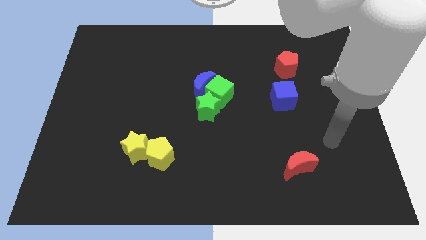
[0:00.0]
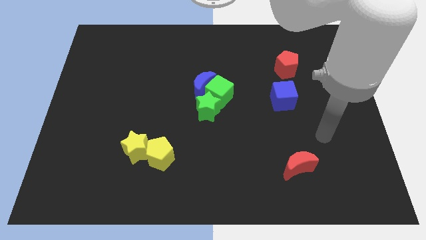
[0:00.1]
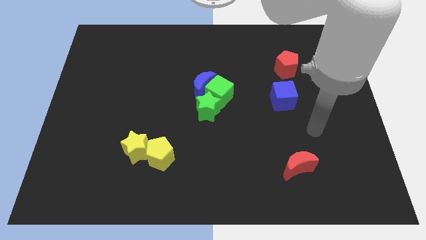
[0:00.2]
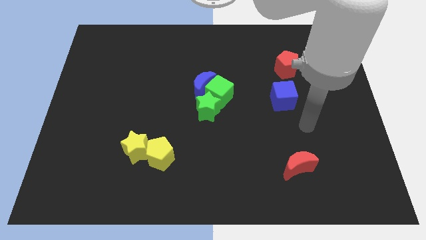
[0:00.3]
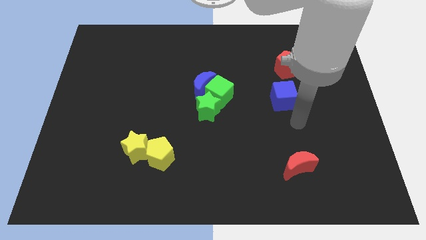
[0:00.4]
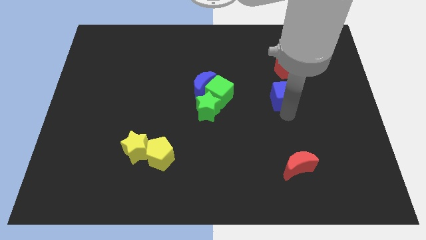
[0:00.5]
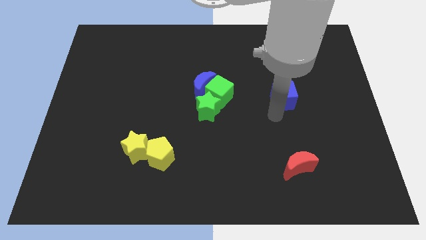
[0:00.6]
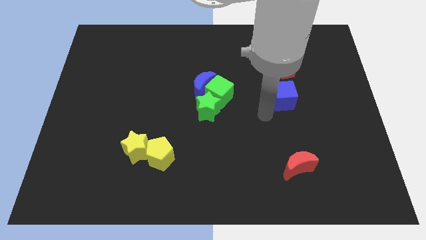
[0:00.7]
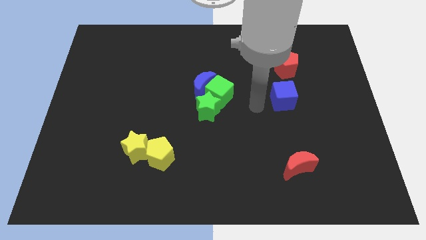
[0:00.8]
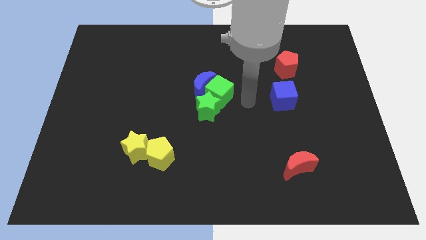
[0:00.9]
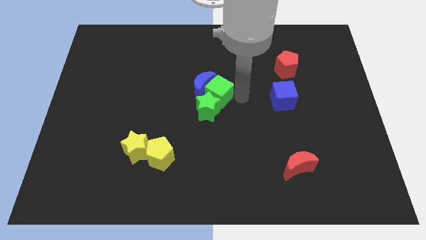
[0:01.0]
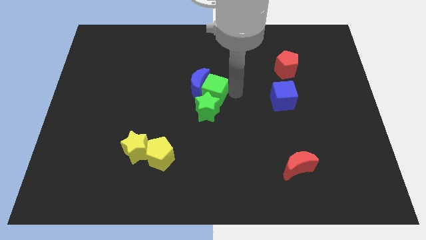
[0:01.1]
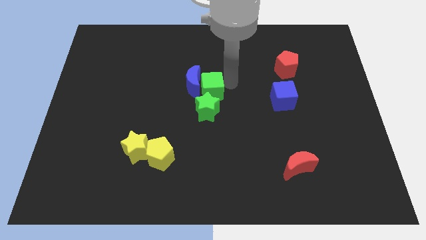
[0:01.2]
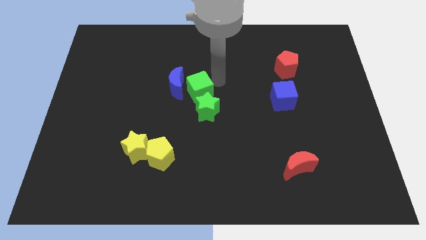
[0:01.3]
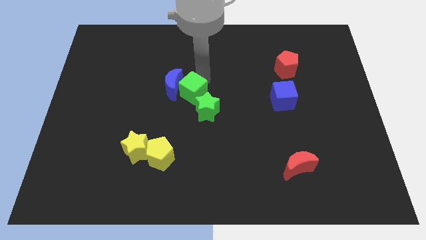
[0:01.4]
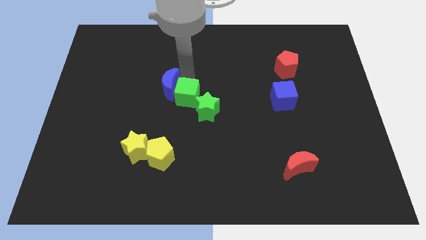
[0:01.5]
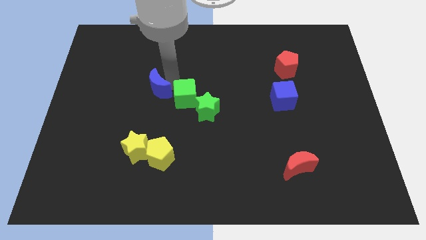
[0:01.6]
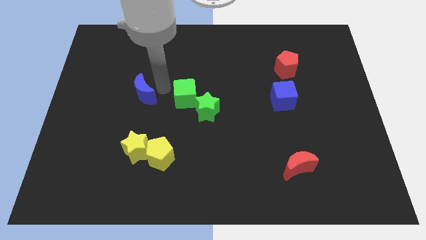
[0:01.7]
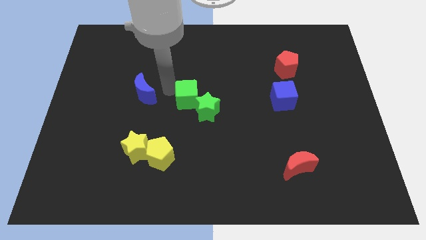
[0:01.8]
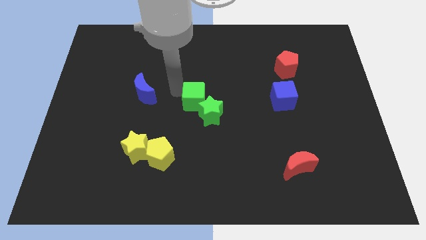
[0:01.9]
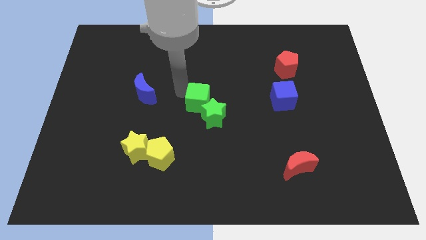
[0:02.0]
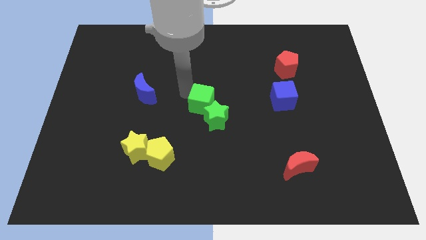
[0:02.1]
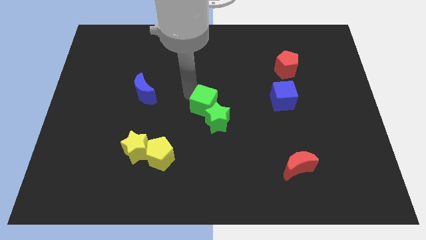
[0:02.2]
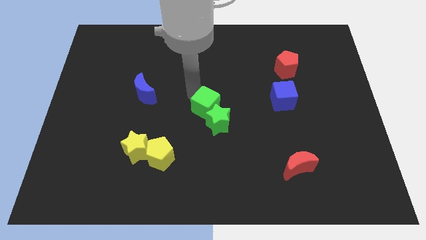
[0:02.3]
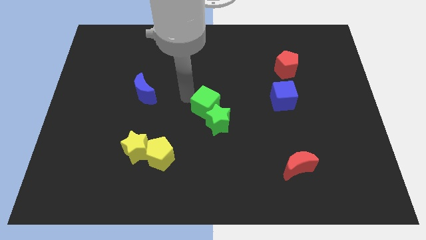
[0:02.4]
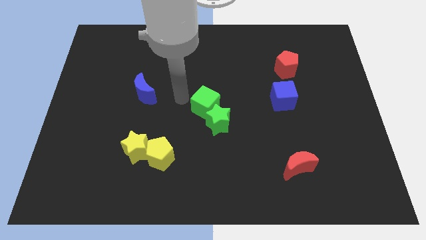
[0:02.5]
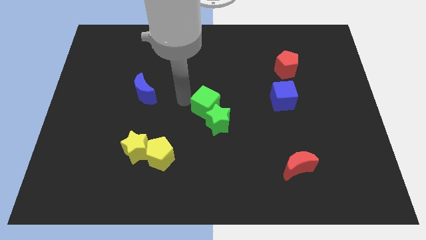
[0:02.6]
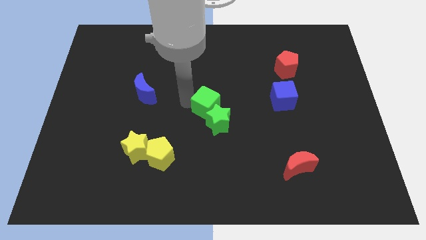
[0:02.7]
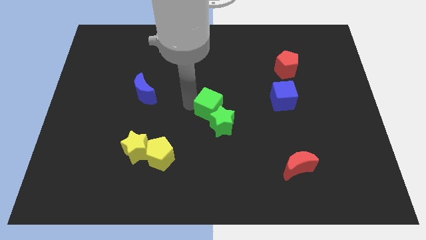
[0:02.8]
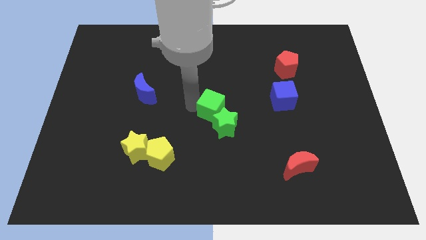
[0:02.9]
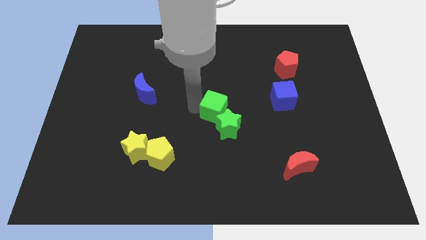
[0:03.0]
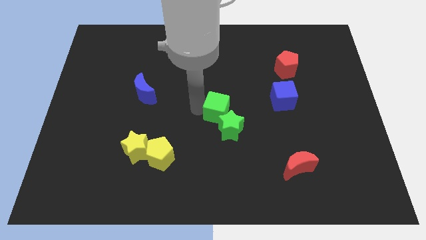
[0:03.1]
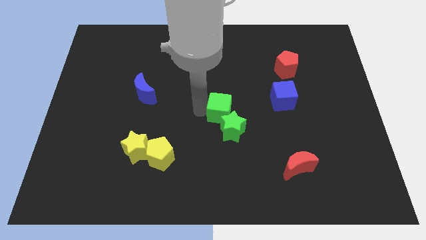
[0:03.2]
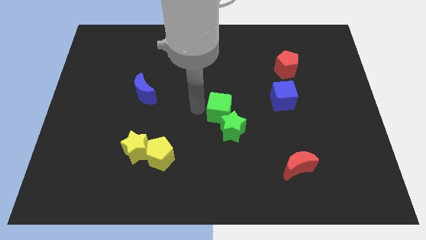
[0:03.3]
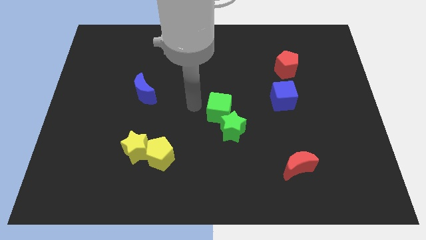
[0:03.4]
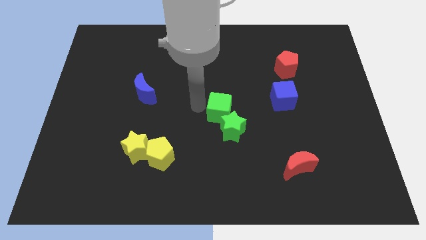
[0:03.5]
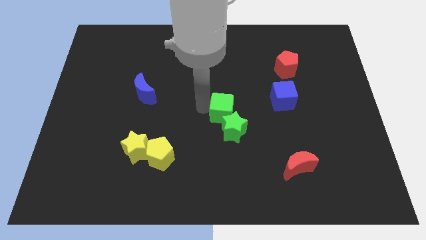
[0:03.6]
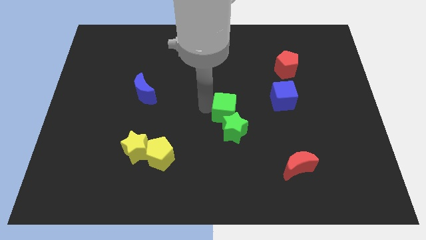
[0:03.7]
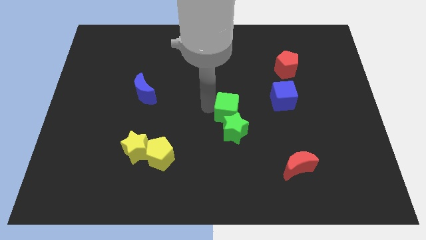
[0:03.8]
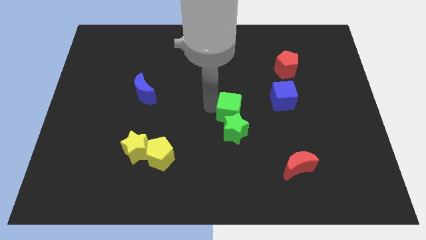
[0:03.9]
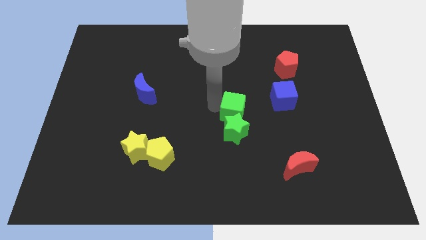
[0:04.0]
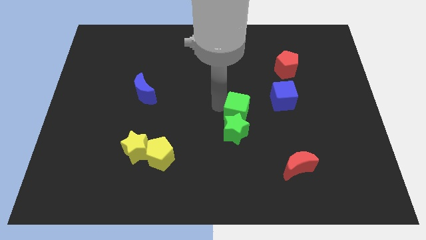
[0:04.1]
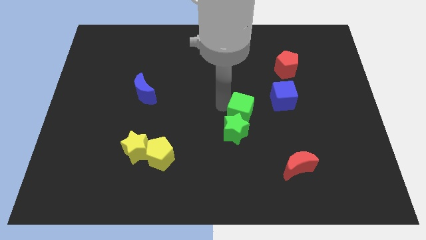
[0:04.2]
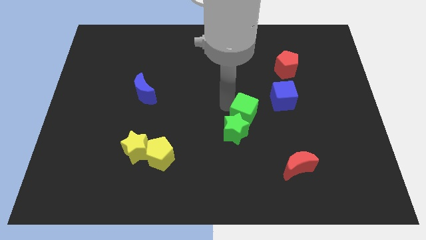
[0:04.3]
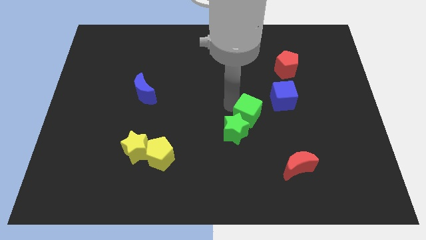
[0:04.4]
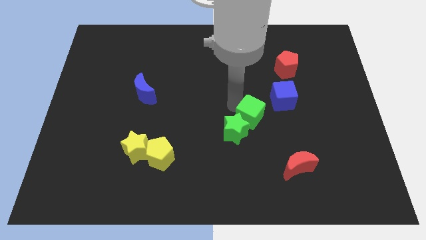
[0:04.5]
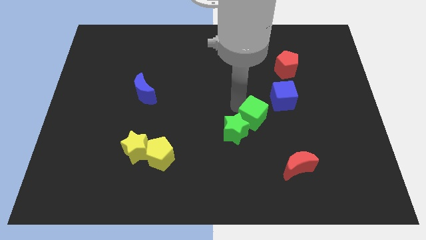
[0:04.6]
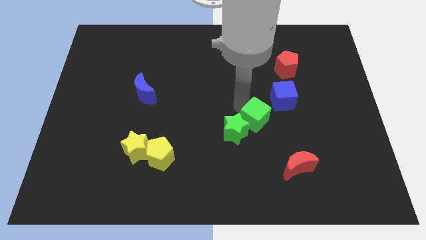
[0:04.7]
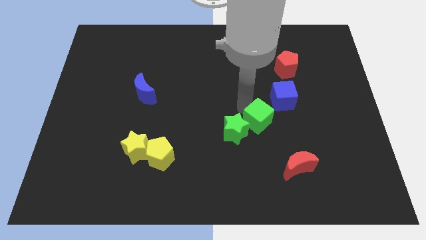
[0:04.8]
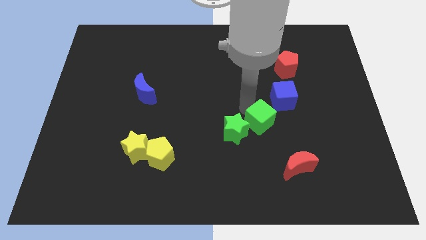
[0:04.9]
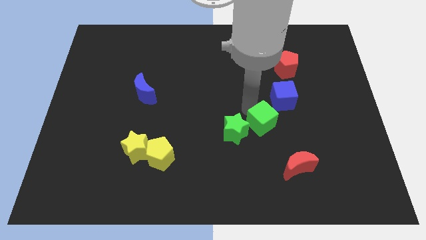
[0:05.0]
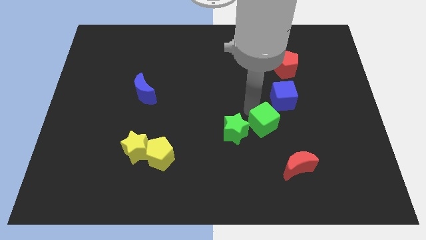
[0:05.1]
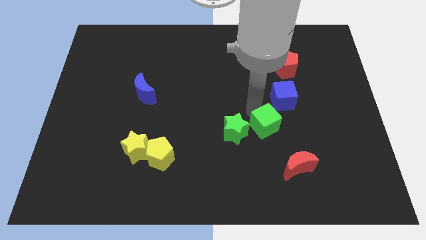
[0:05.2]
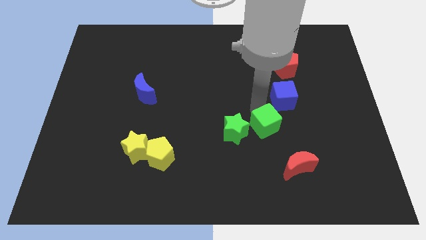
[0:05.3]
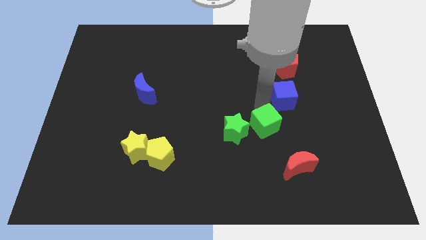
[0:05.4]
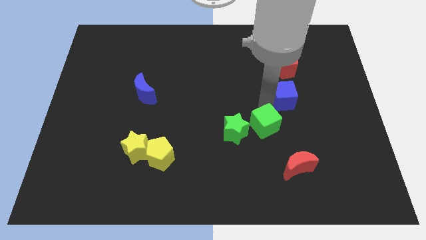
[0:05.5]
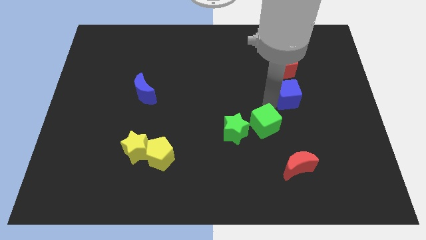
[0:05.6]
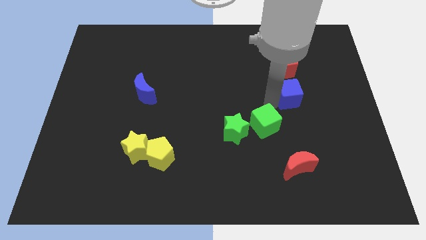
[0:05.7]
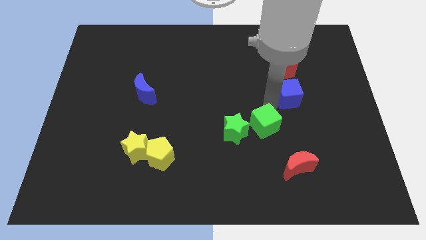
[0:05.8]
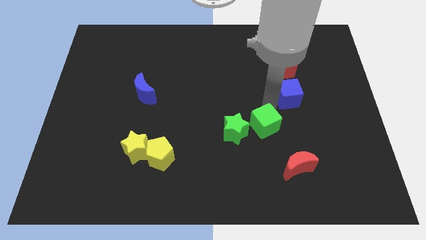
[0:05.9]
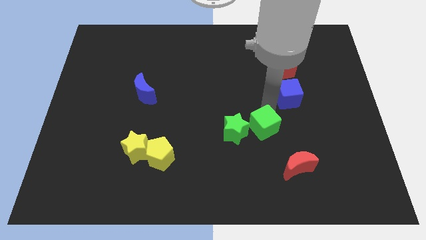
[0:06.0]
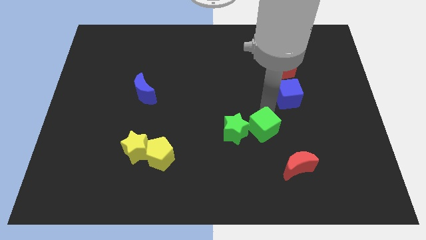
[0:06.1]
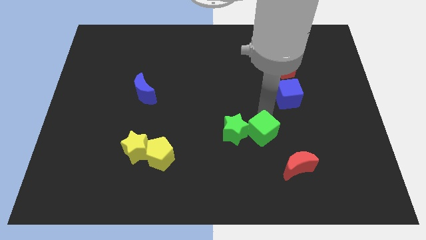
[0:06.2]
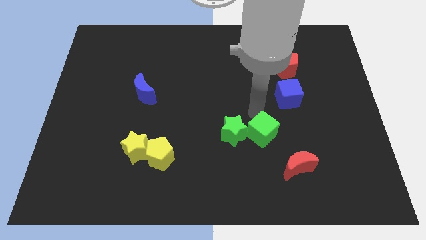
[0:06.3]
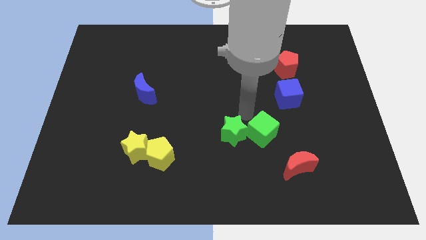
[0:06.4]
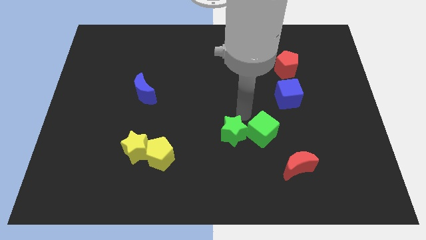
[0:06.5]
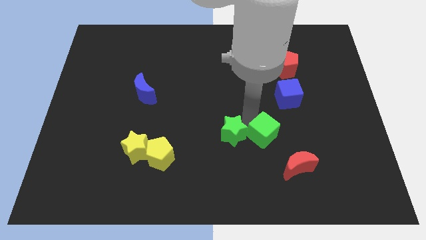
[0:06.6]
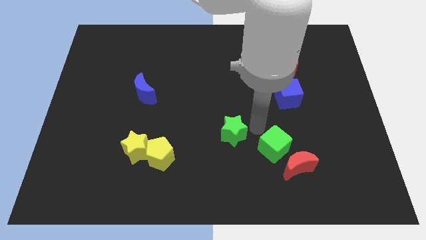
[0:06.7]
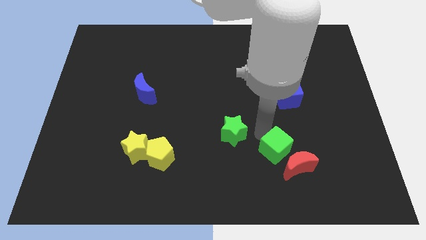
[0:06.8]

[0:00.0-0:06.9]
slide the green cube to the red moon

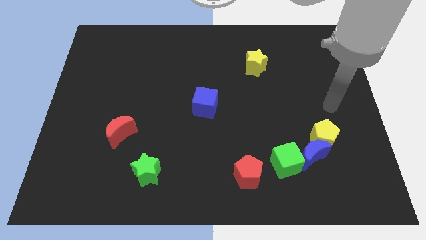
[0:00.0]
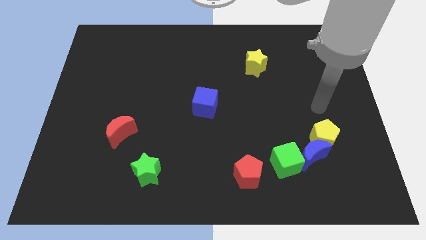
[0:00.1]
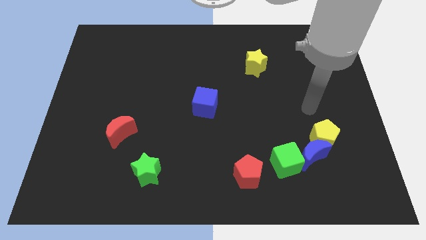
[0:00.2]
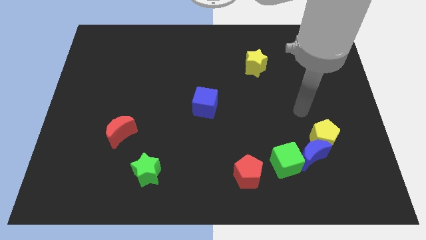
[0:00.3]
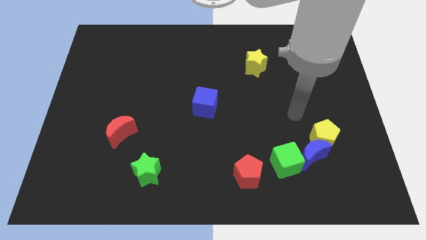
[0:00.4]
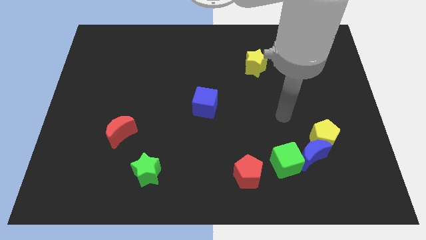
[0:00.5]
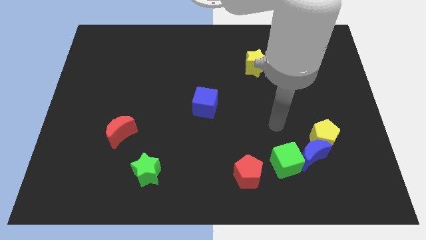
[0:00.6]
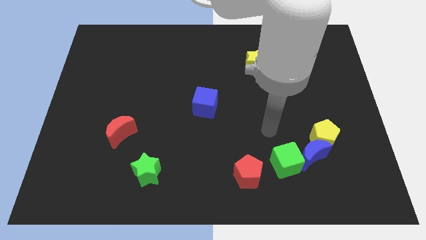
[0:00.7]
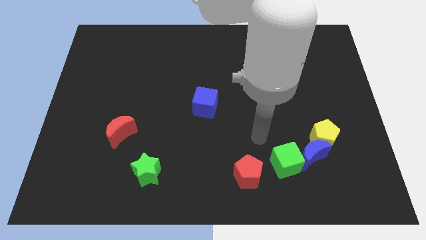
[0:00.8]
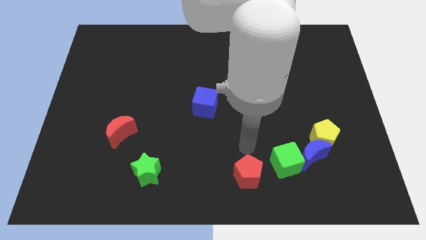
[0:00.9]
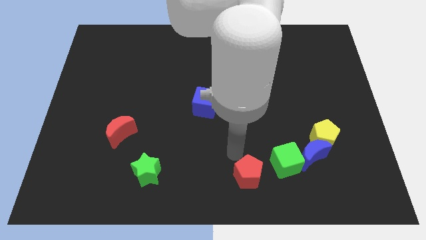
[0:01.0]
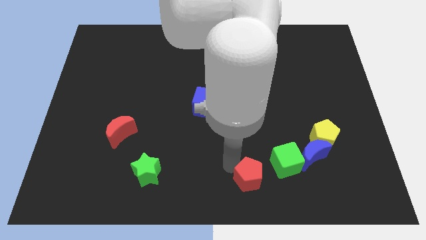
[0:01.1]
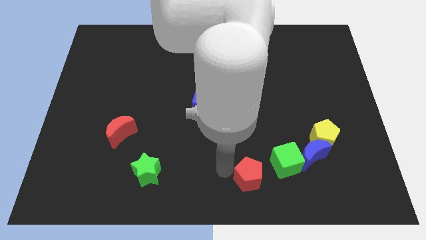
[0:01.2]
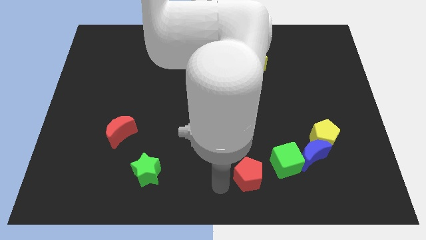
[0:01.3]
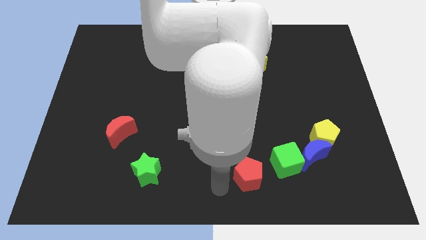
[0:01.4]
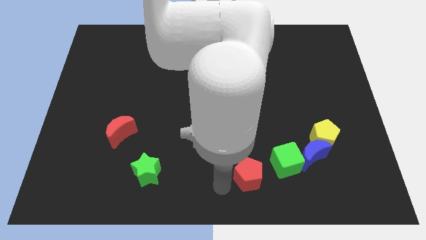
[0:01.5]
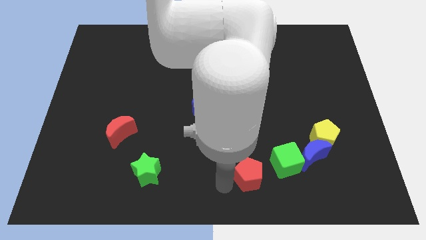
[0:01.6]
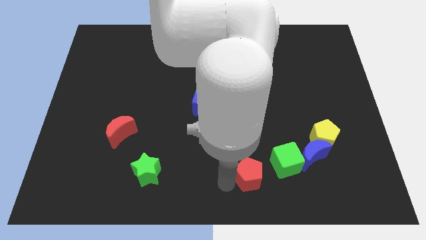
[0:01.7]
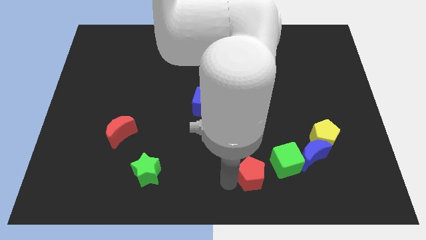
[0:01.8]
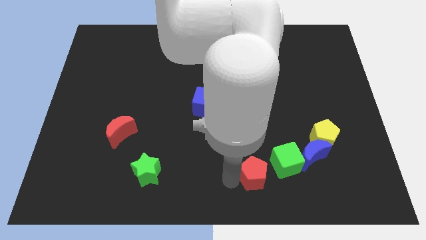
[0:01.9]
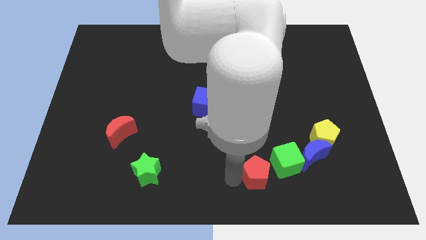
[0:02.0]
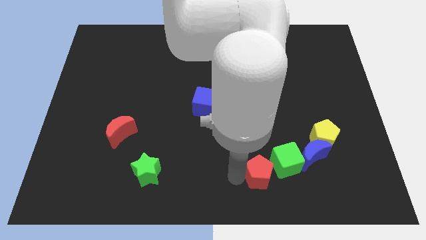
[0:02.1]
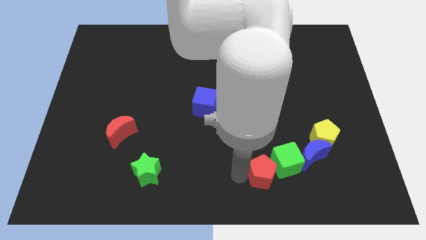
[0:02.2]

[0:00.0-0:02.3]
push the red pentagon towards the green cube
